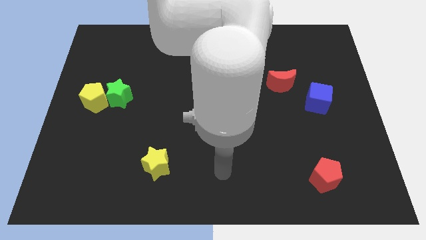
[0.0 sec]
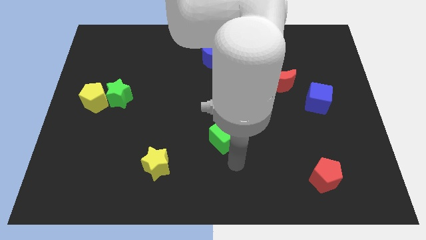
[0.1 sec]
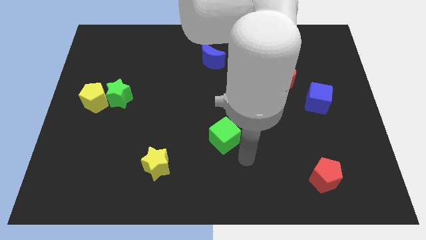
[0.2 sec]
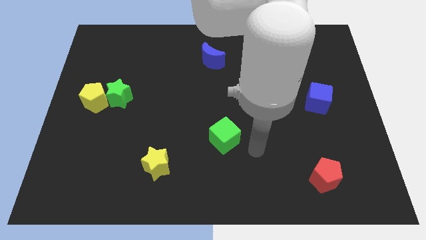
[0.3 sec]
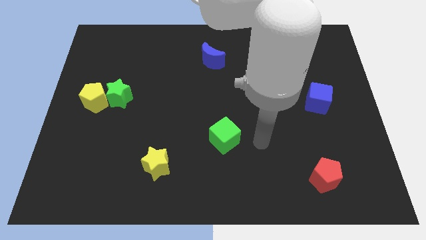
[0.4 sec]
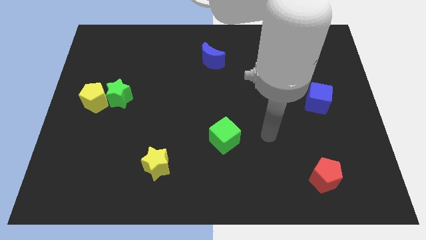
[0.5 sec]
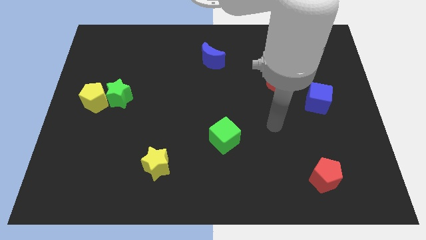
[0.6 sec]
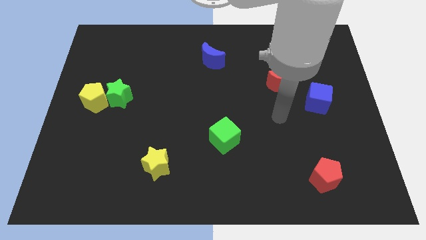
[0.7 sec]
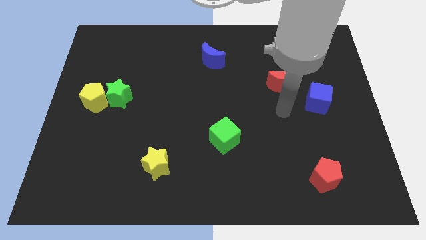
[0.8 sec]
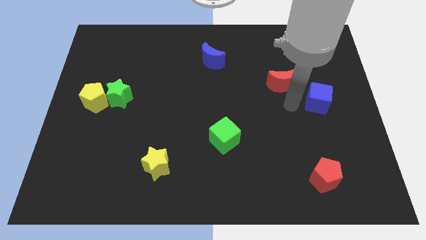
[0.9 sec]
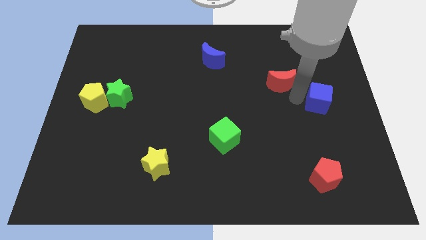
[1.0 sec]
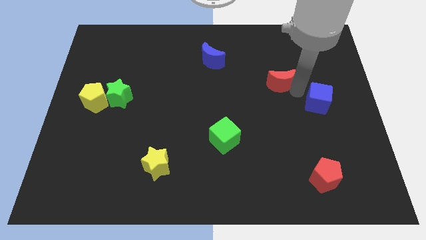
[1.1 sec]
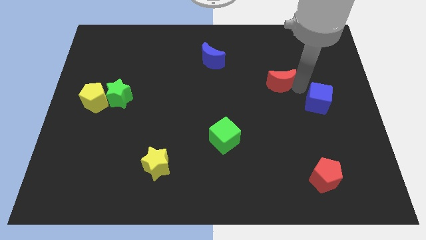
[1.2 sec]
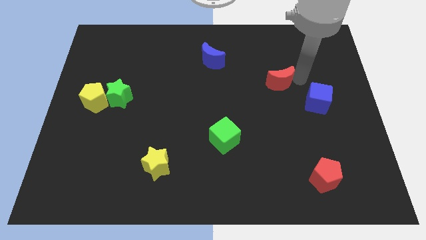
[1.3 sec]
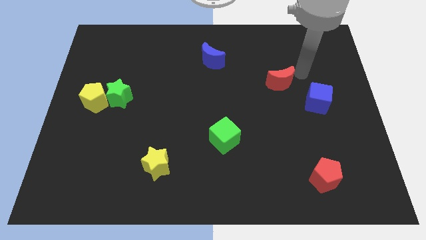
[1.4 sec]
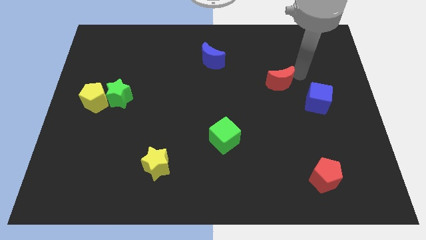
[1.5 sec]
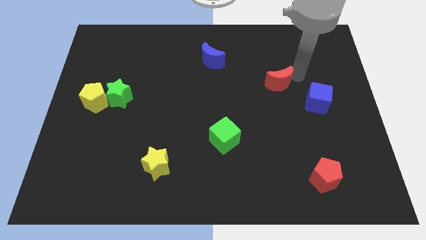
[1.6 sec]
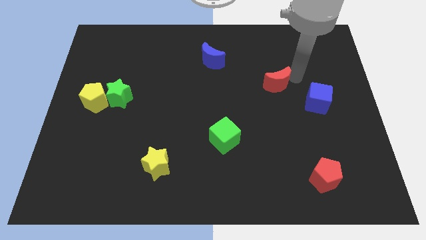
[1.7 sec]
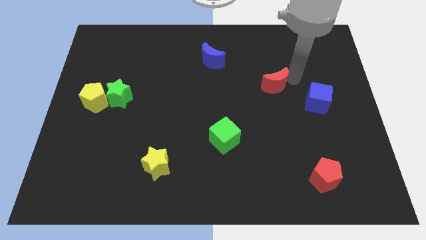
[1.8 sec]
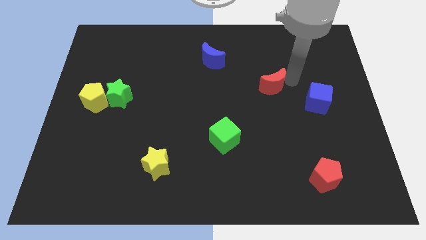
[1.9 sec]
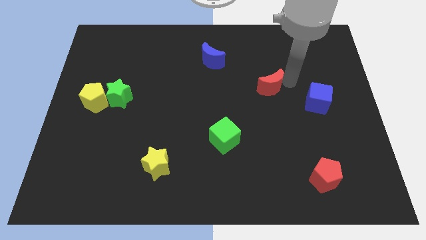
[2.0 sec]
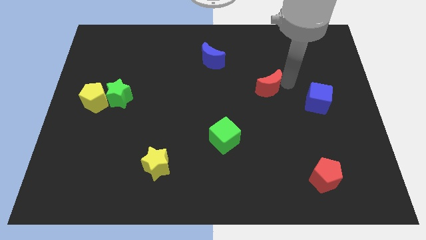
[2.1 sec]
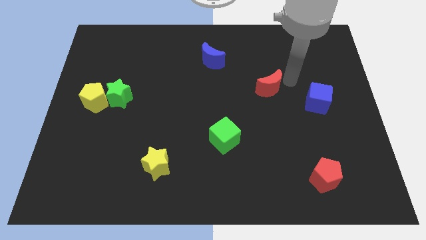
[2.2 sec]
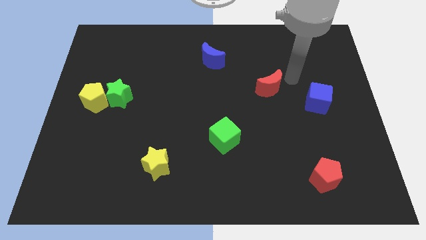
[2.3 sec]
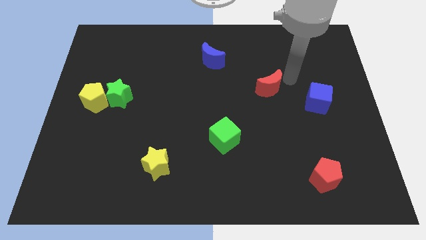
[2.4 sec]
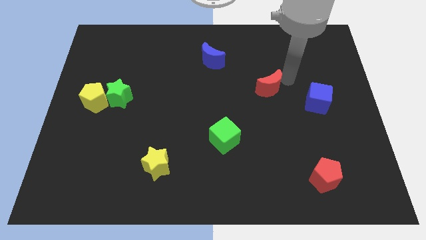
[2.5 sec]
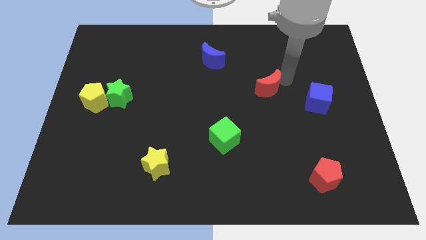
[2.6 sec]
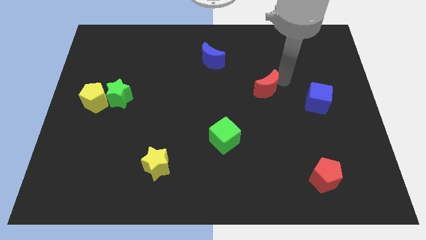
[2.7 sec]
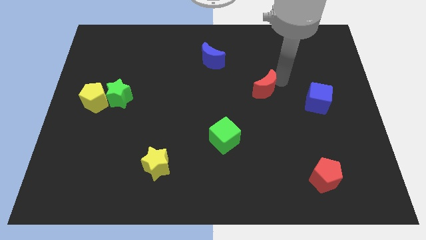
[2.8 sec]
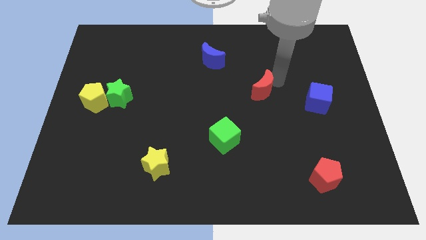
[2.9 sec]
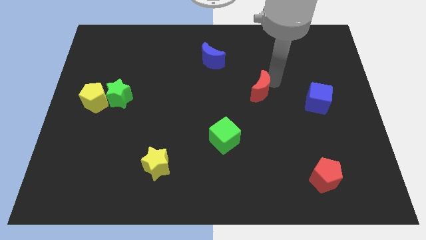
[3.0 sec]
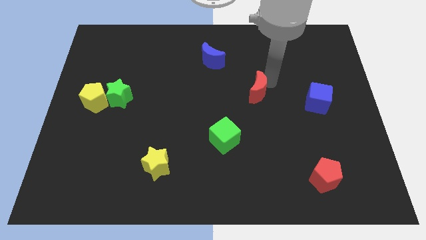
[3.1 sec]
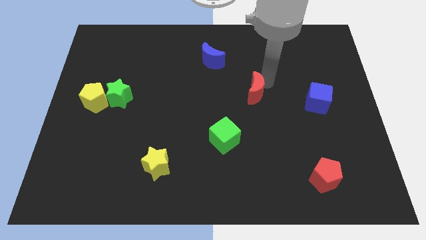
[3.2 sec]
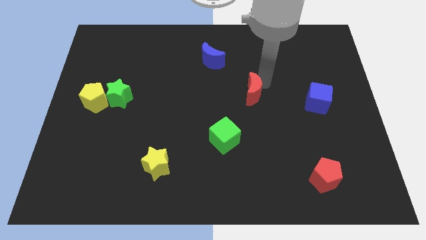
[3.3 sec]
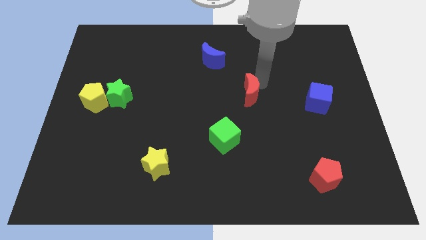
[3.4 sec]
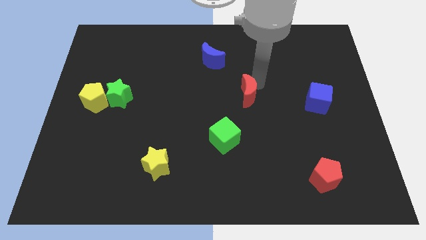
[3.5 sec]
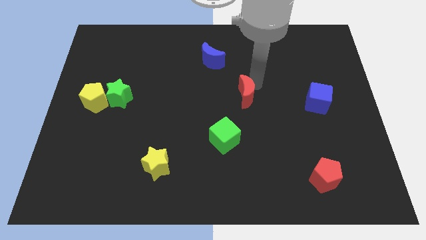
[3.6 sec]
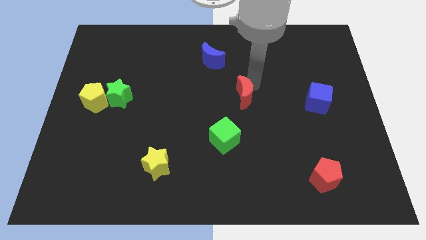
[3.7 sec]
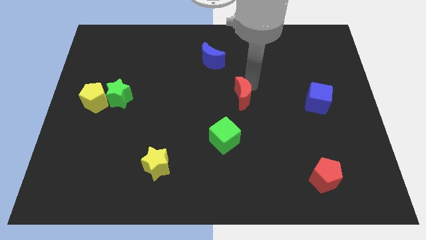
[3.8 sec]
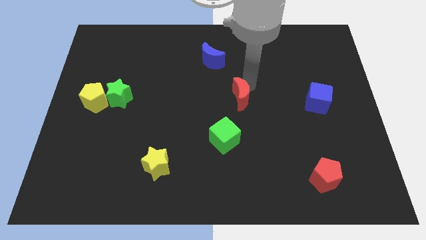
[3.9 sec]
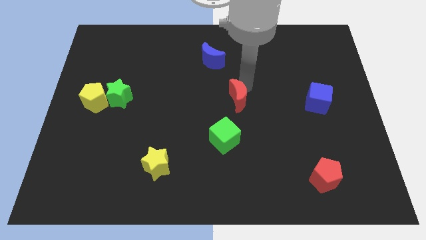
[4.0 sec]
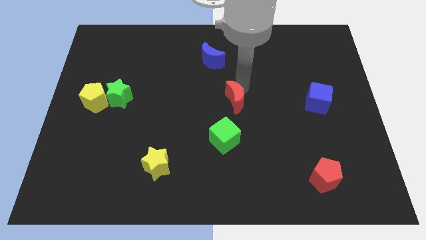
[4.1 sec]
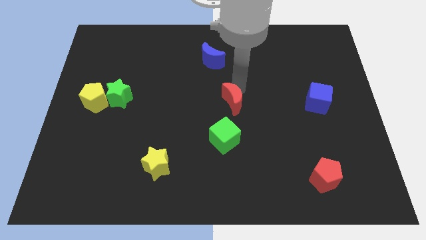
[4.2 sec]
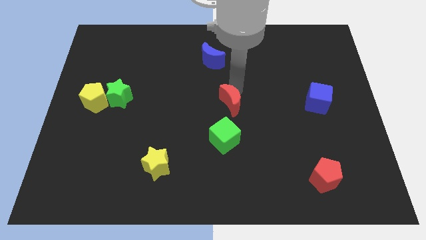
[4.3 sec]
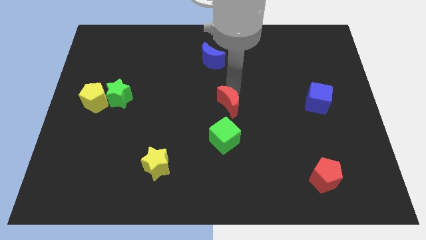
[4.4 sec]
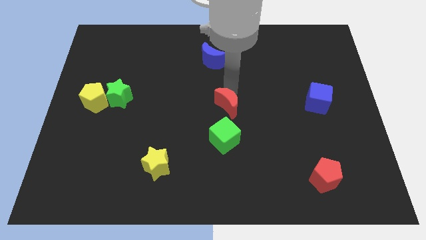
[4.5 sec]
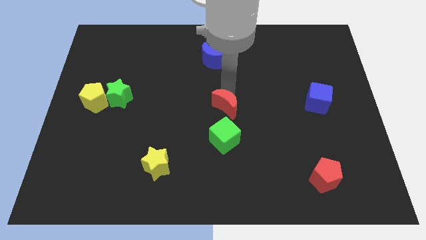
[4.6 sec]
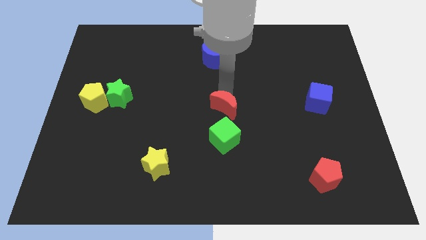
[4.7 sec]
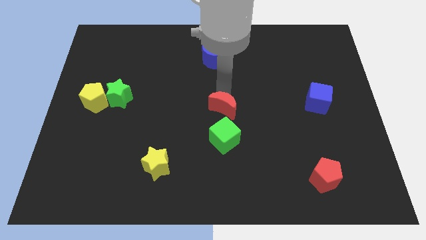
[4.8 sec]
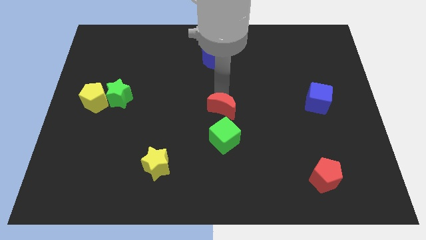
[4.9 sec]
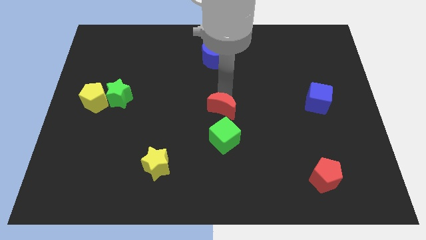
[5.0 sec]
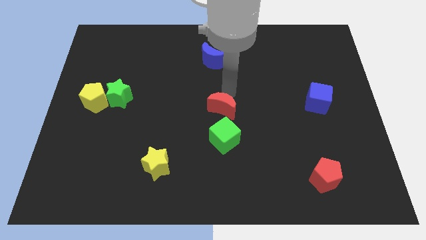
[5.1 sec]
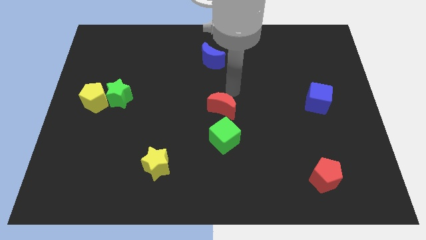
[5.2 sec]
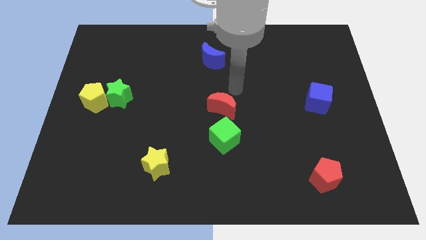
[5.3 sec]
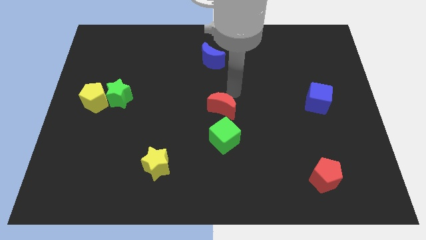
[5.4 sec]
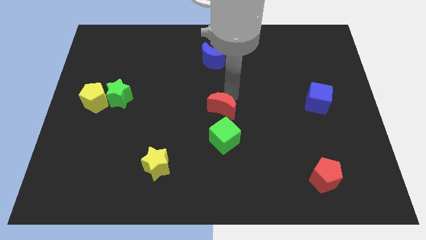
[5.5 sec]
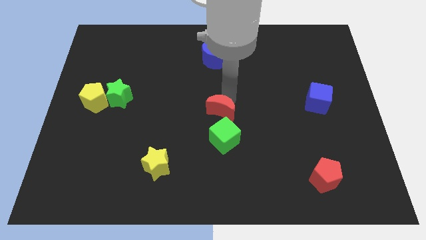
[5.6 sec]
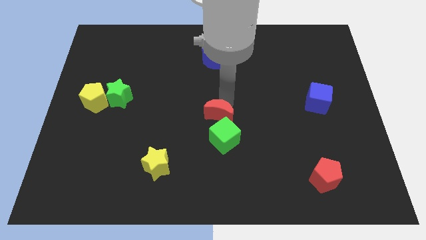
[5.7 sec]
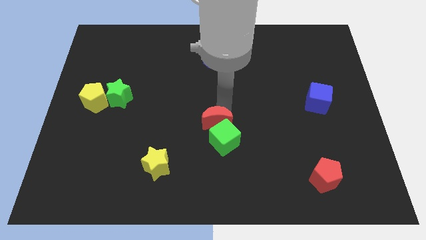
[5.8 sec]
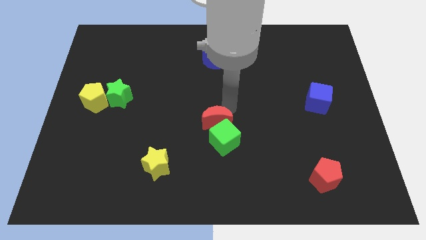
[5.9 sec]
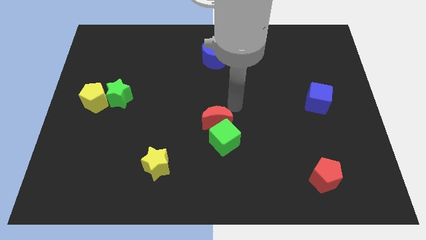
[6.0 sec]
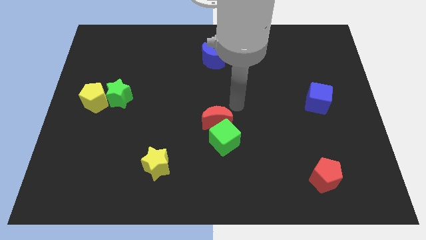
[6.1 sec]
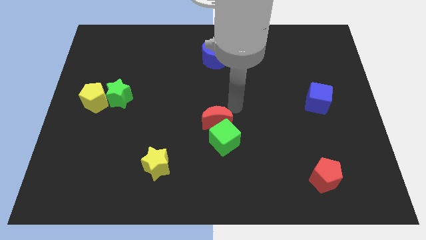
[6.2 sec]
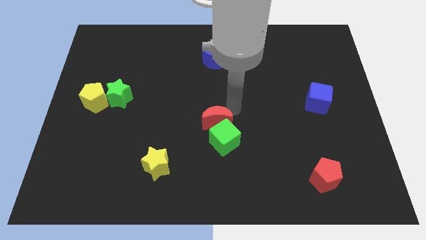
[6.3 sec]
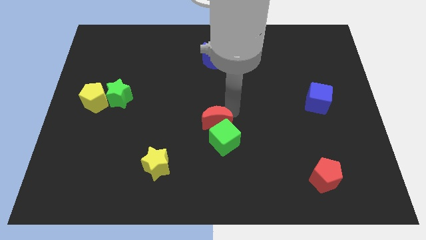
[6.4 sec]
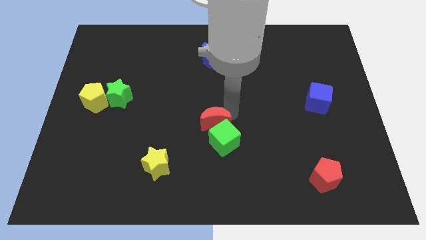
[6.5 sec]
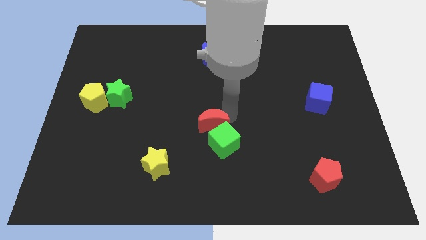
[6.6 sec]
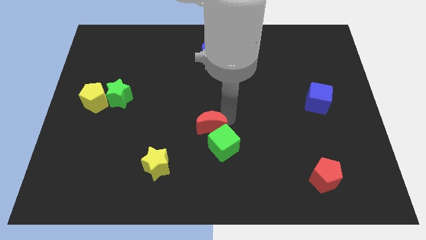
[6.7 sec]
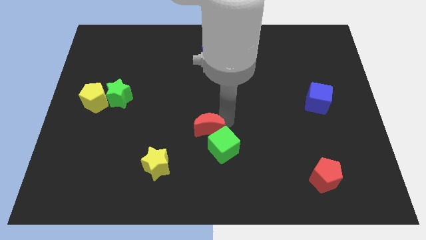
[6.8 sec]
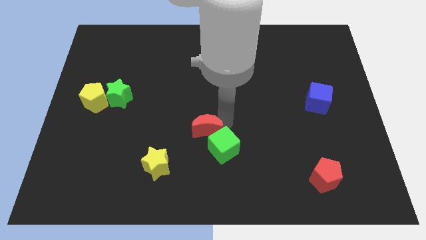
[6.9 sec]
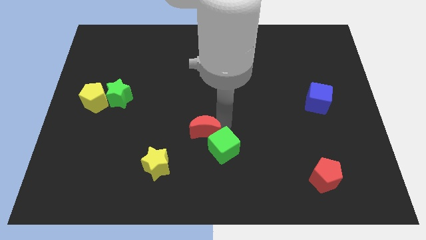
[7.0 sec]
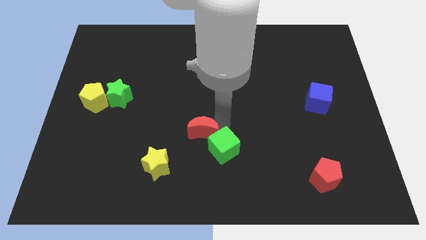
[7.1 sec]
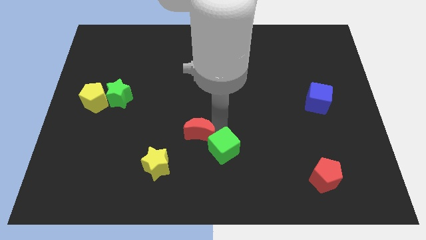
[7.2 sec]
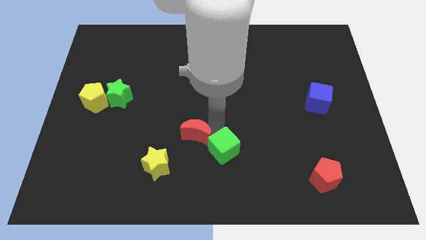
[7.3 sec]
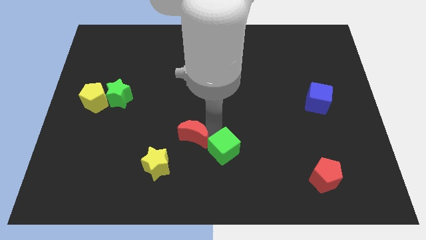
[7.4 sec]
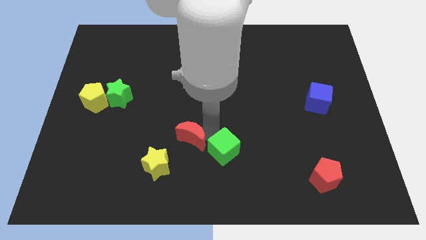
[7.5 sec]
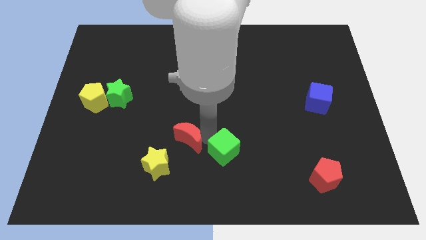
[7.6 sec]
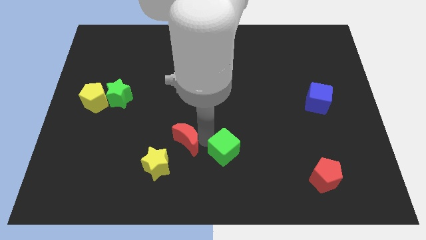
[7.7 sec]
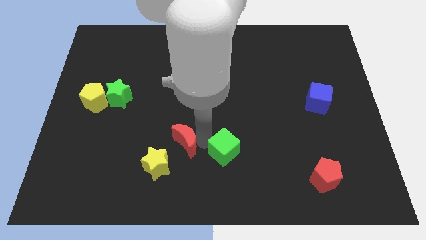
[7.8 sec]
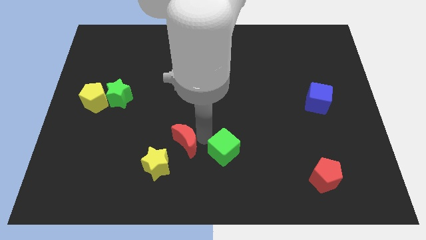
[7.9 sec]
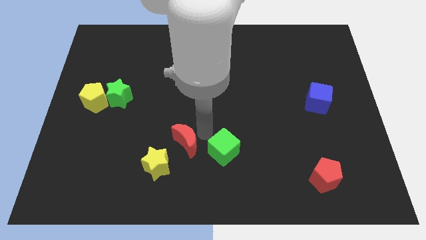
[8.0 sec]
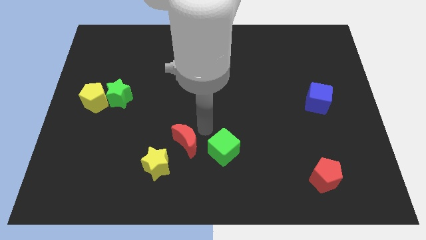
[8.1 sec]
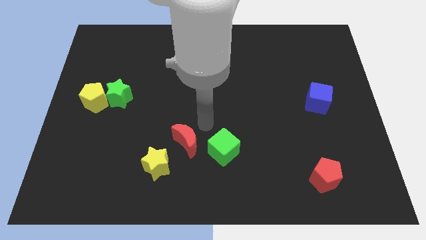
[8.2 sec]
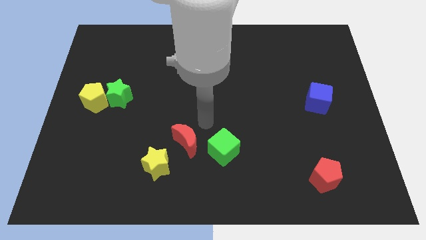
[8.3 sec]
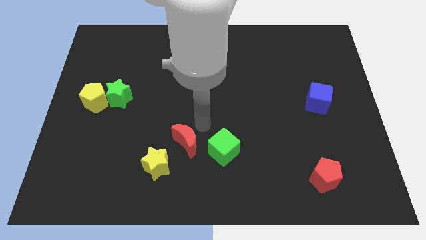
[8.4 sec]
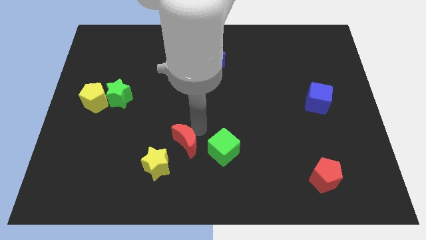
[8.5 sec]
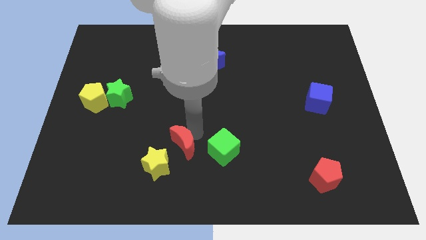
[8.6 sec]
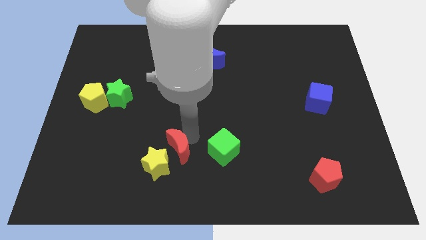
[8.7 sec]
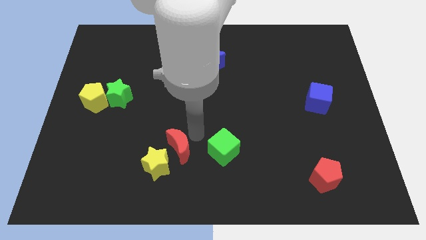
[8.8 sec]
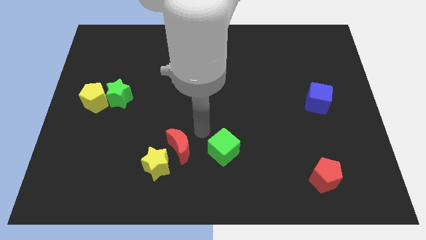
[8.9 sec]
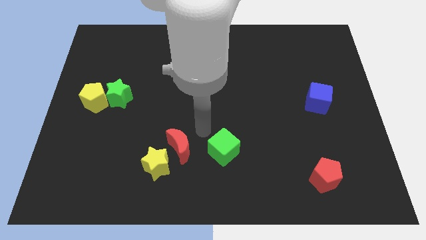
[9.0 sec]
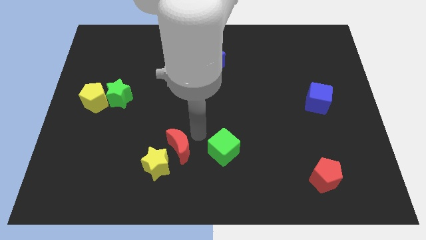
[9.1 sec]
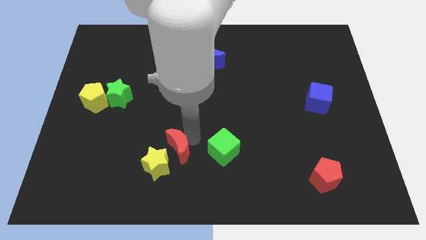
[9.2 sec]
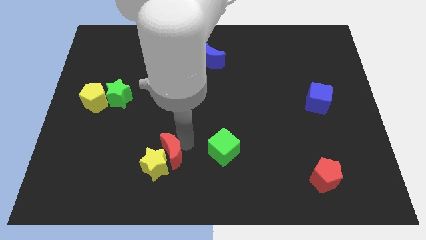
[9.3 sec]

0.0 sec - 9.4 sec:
put the red moon close to the yellow star
